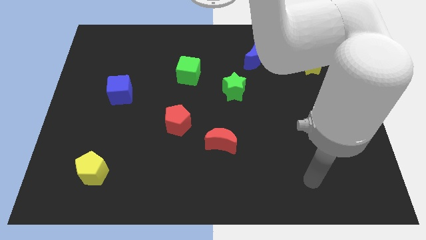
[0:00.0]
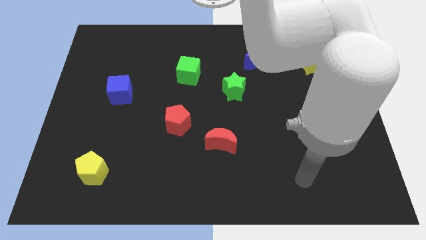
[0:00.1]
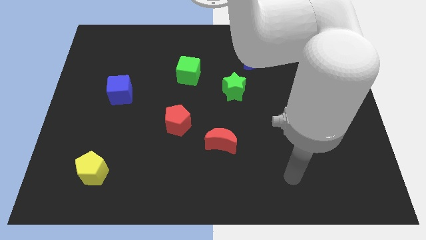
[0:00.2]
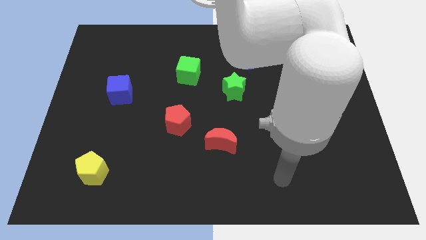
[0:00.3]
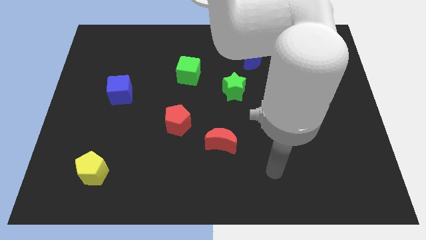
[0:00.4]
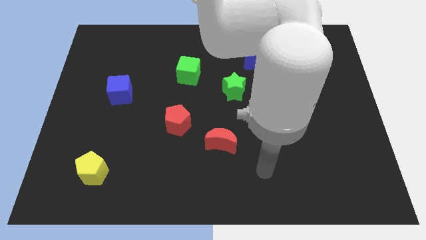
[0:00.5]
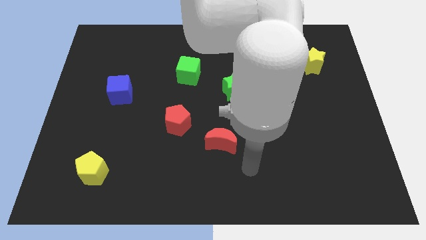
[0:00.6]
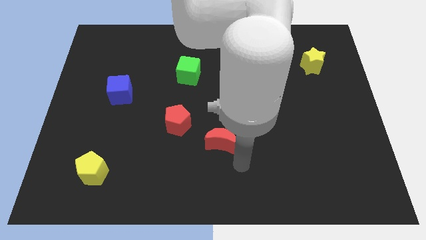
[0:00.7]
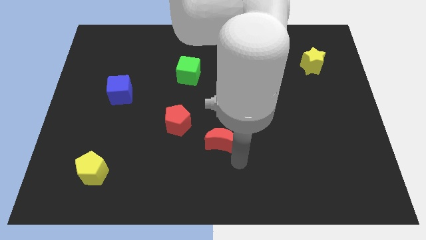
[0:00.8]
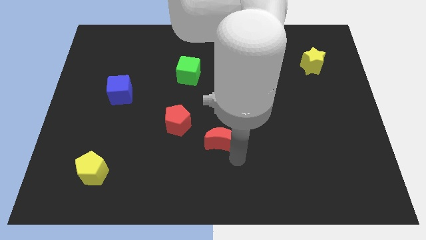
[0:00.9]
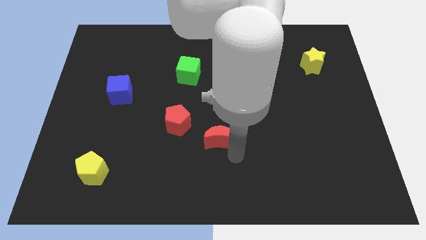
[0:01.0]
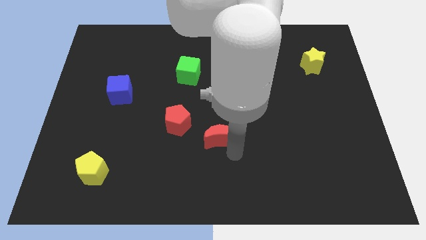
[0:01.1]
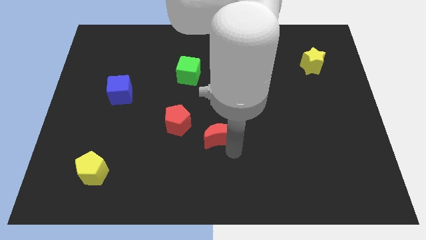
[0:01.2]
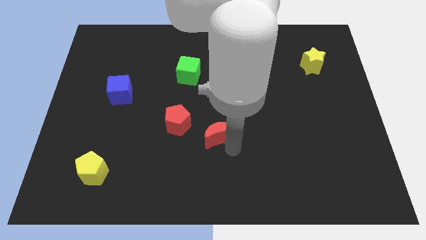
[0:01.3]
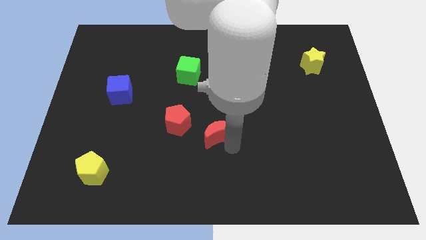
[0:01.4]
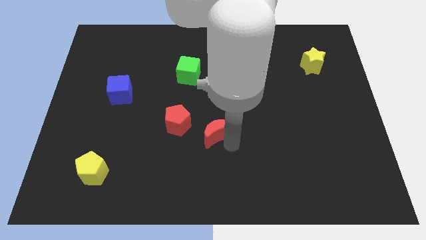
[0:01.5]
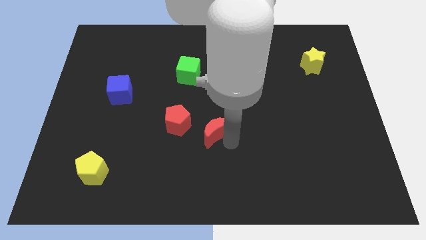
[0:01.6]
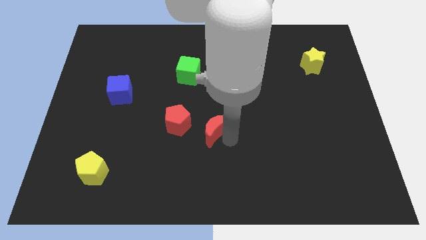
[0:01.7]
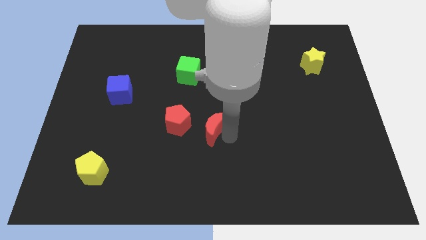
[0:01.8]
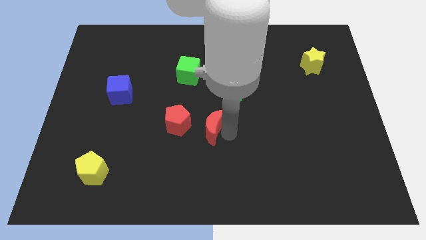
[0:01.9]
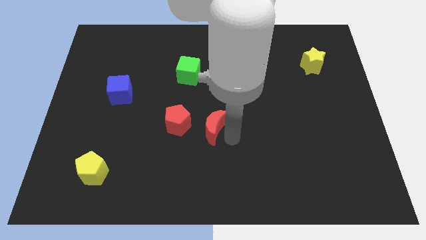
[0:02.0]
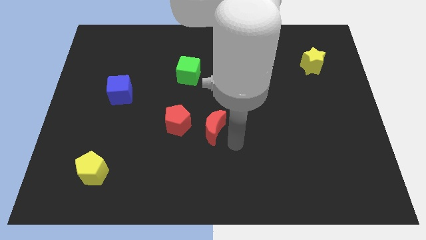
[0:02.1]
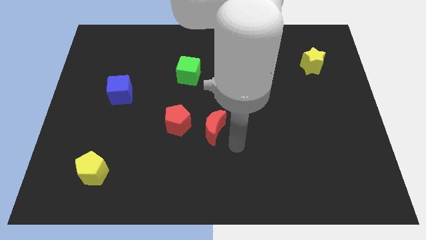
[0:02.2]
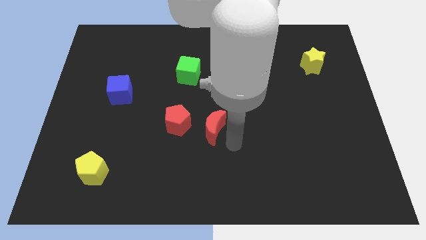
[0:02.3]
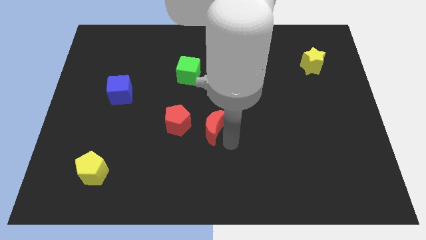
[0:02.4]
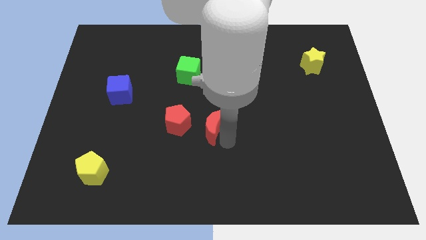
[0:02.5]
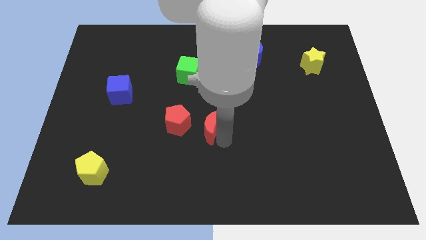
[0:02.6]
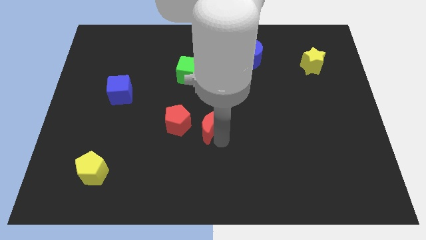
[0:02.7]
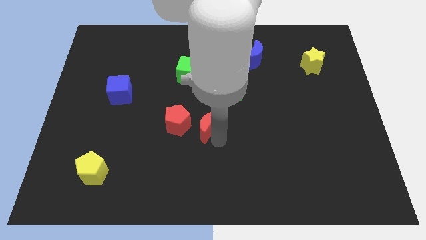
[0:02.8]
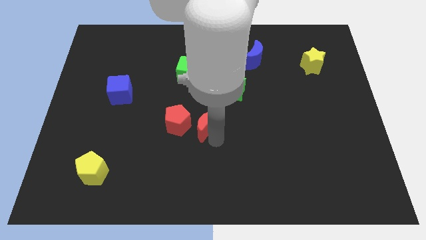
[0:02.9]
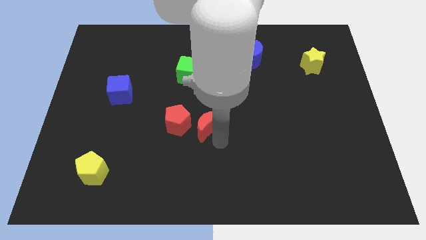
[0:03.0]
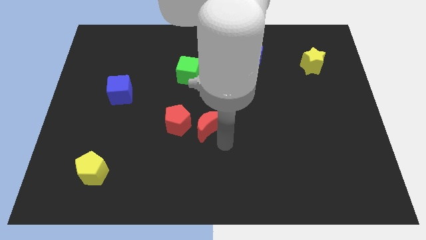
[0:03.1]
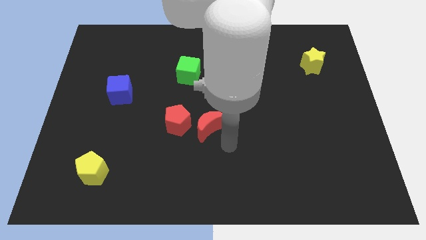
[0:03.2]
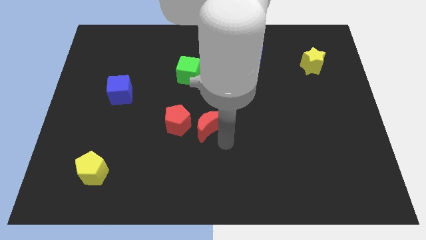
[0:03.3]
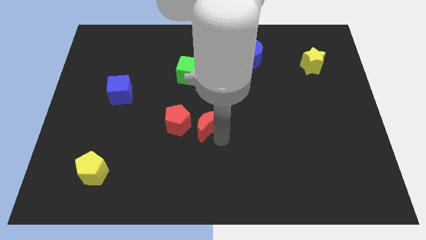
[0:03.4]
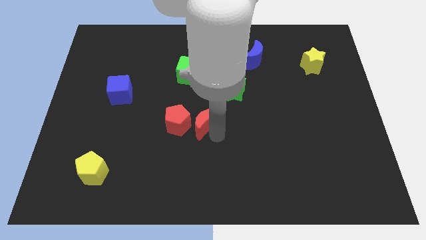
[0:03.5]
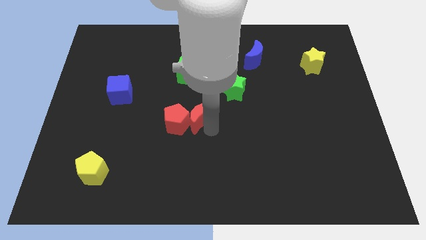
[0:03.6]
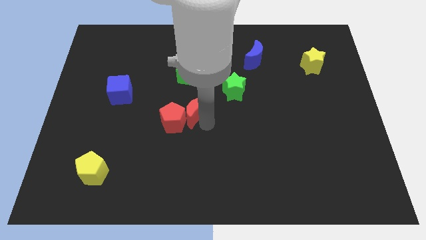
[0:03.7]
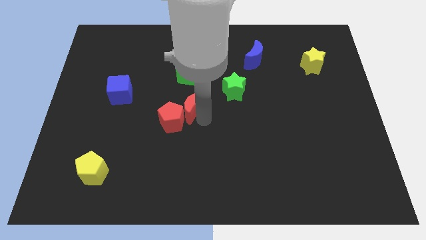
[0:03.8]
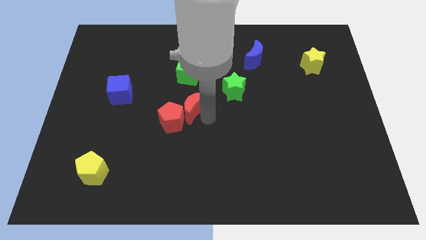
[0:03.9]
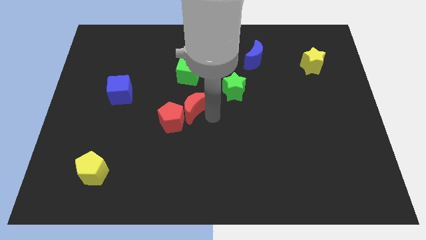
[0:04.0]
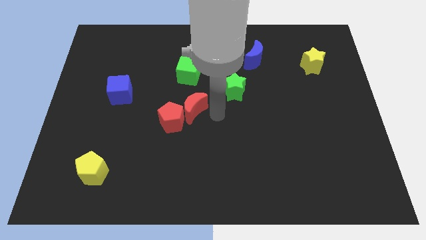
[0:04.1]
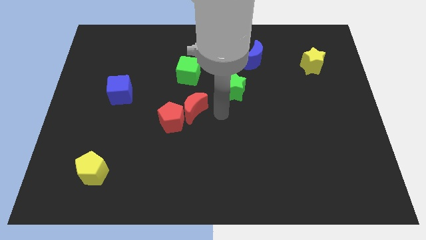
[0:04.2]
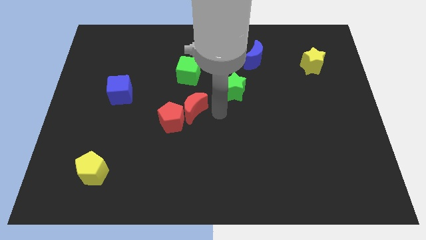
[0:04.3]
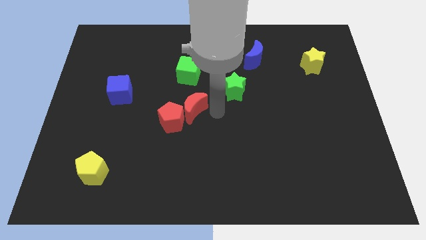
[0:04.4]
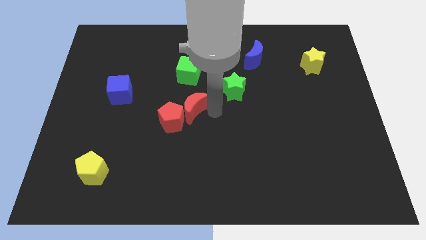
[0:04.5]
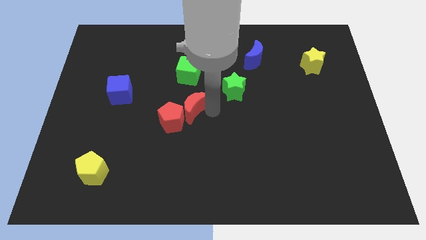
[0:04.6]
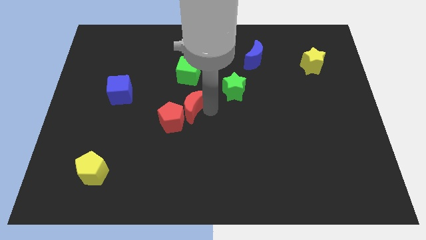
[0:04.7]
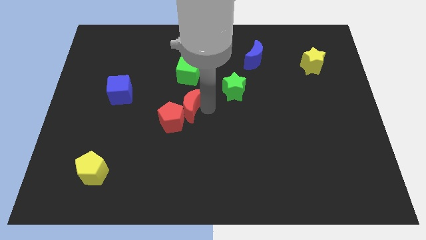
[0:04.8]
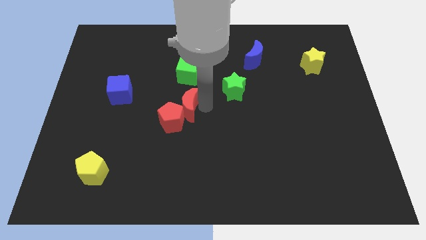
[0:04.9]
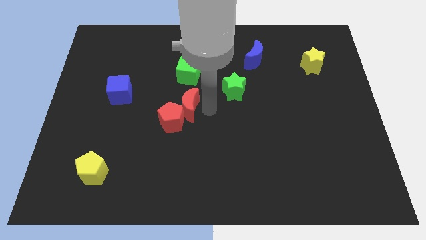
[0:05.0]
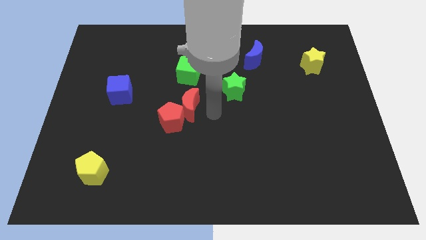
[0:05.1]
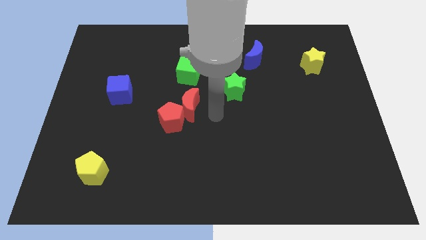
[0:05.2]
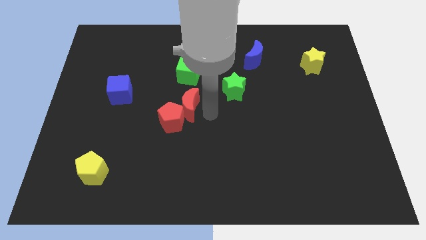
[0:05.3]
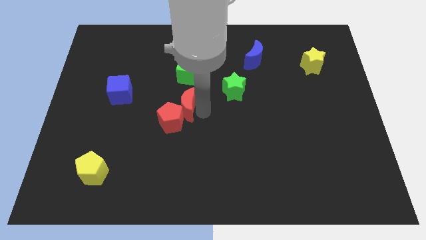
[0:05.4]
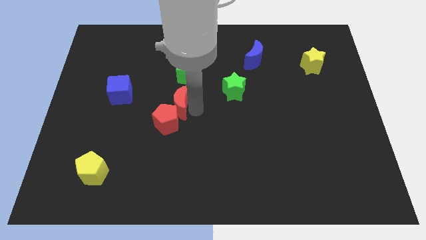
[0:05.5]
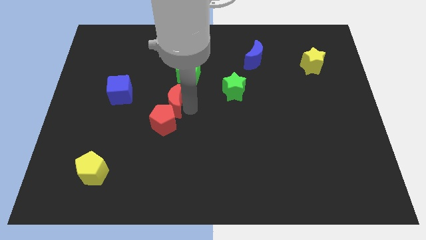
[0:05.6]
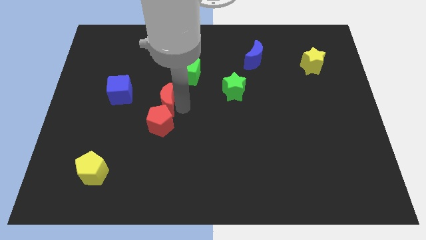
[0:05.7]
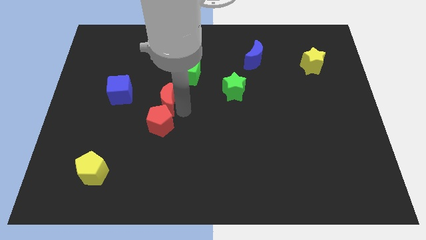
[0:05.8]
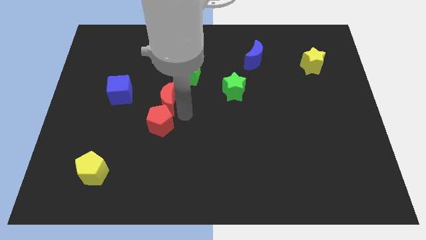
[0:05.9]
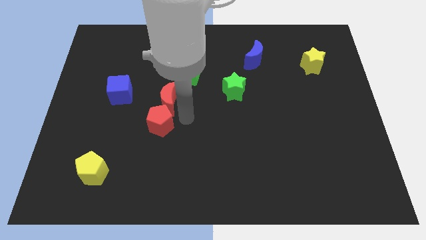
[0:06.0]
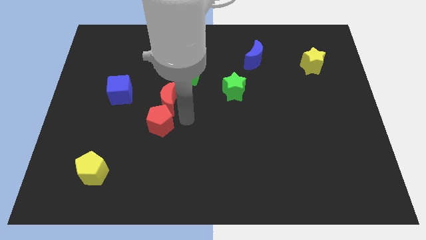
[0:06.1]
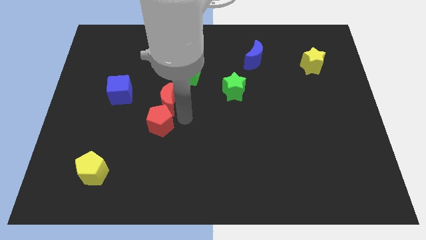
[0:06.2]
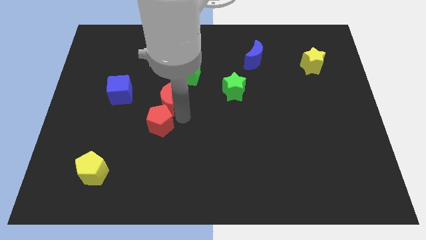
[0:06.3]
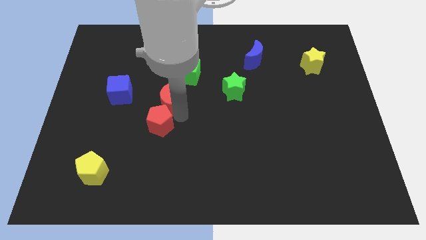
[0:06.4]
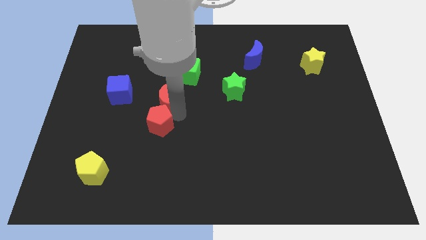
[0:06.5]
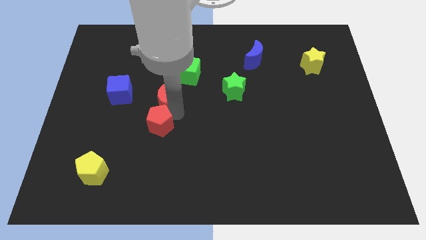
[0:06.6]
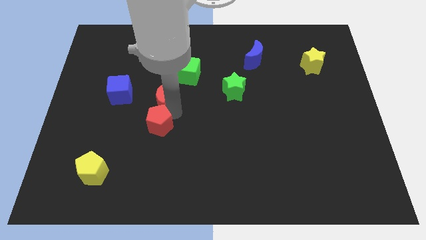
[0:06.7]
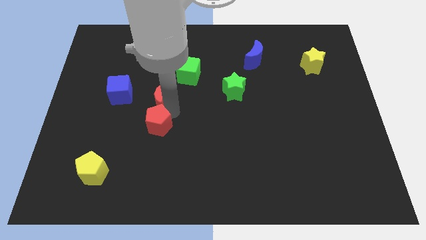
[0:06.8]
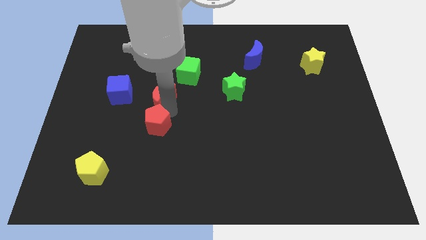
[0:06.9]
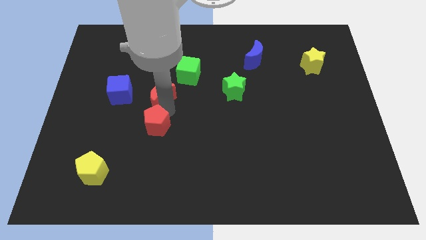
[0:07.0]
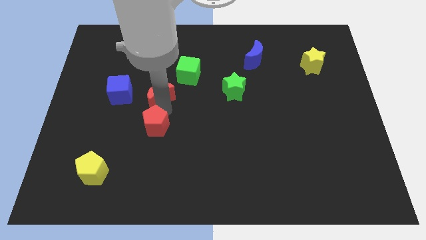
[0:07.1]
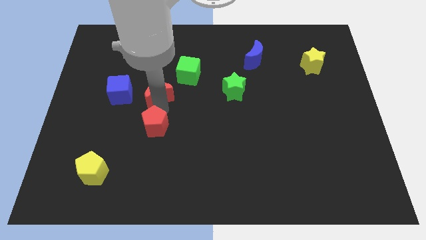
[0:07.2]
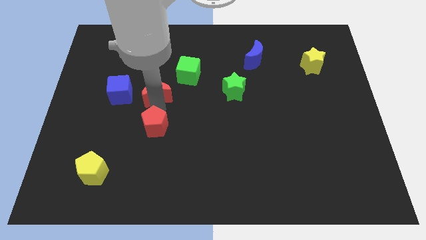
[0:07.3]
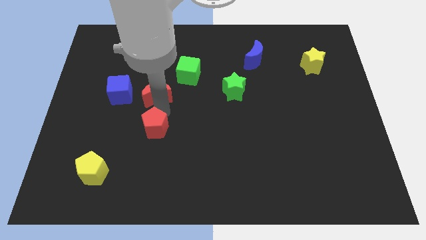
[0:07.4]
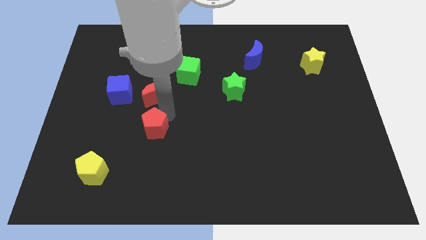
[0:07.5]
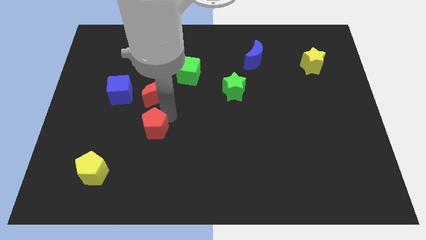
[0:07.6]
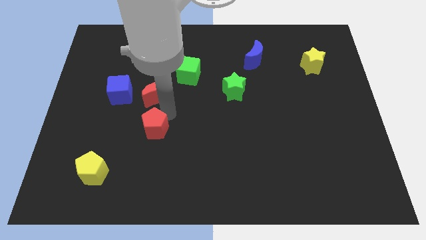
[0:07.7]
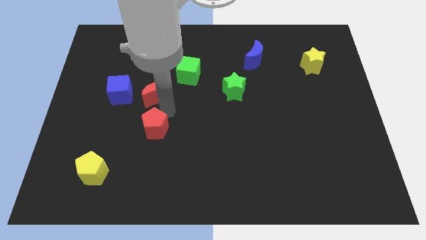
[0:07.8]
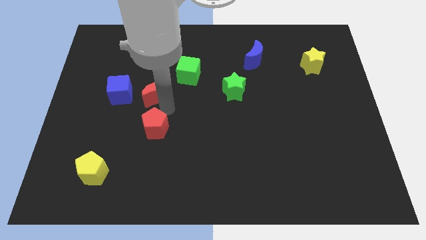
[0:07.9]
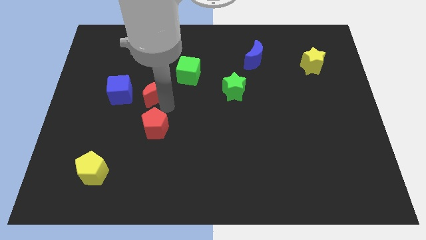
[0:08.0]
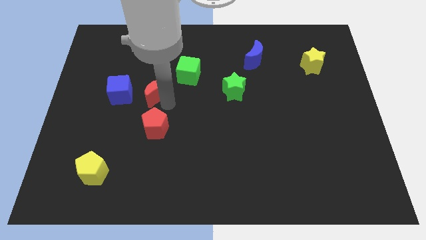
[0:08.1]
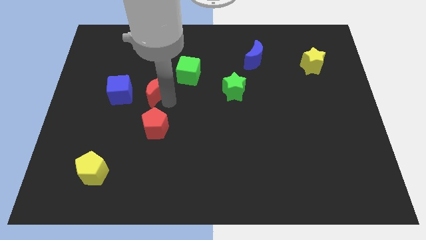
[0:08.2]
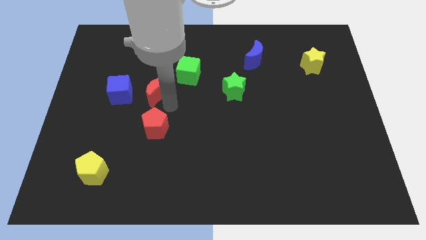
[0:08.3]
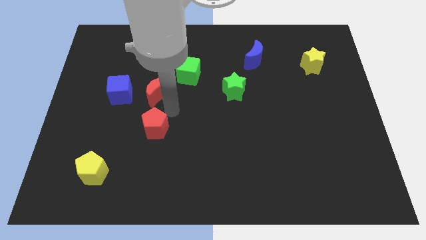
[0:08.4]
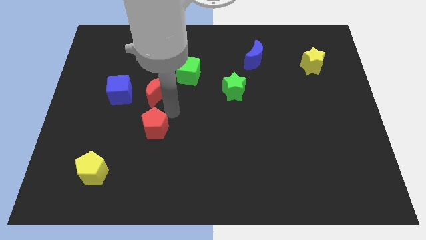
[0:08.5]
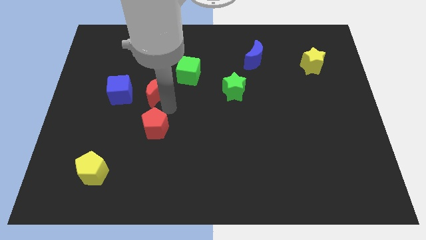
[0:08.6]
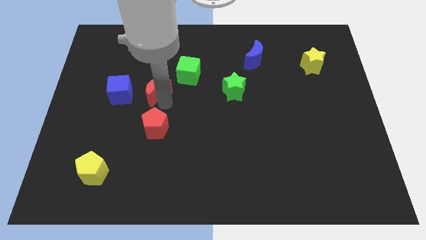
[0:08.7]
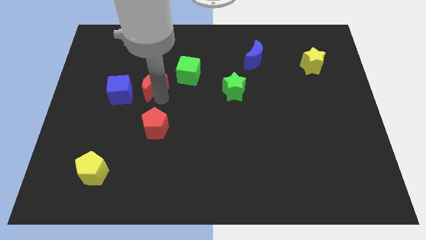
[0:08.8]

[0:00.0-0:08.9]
slide the red moon to the top right side of the blue cube
